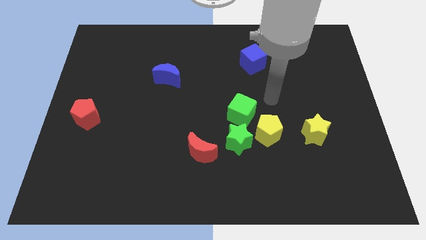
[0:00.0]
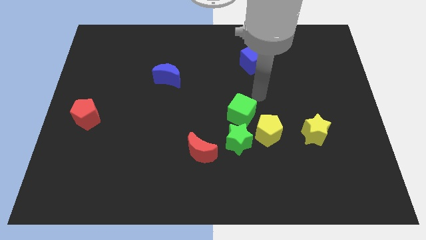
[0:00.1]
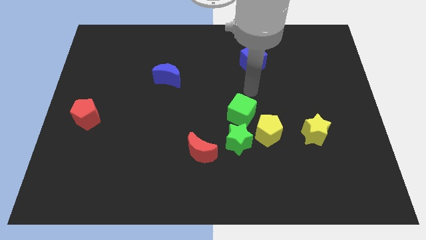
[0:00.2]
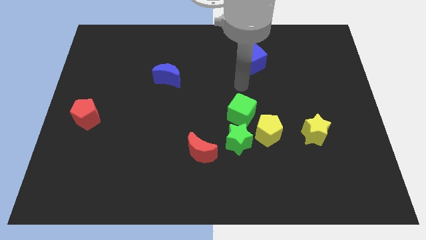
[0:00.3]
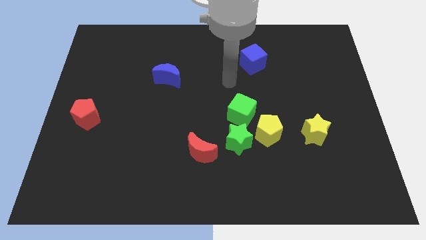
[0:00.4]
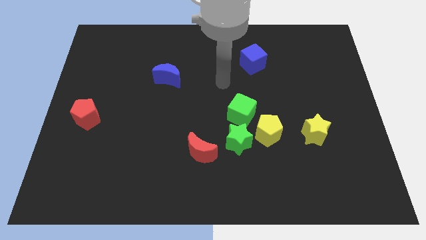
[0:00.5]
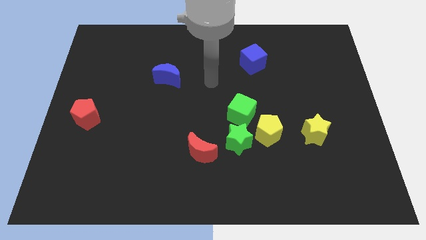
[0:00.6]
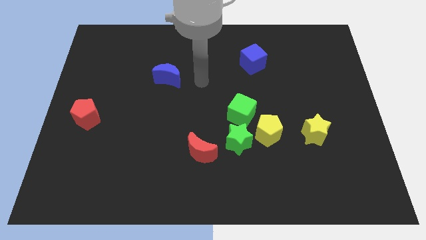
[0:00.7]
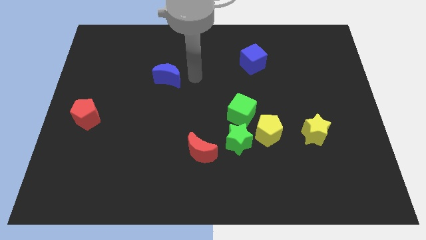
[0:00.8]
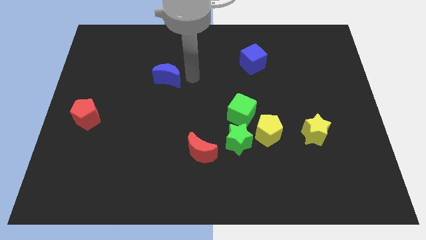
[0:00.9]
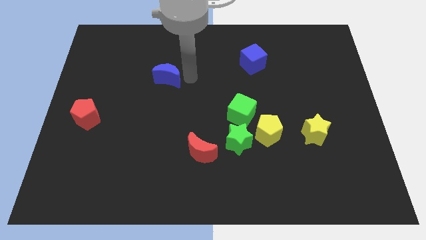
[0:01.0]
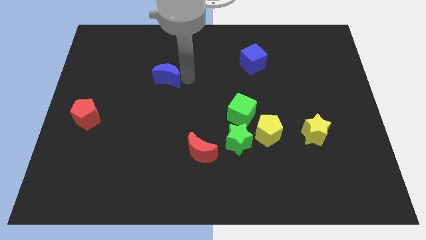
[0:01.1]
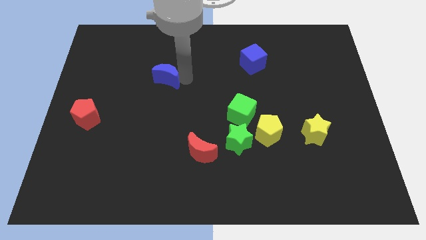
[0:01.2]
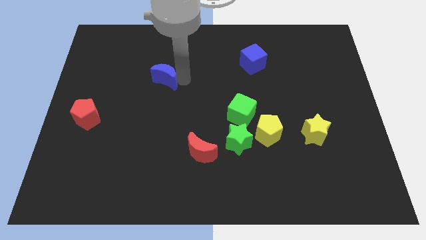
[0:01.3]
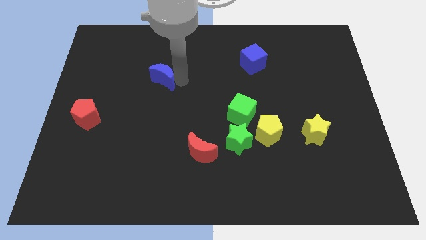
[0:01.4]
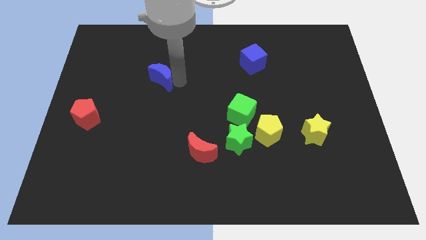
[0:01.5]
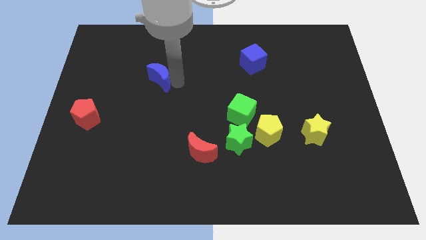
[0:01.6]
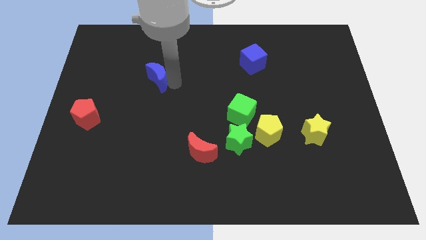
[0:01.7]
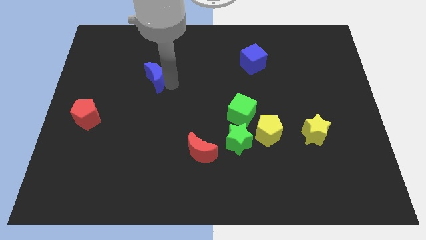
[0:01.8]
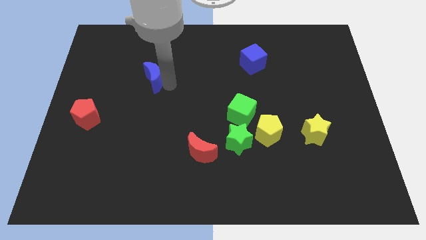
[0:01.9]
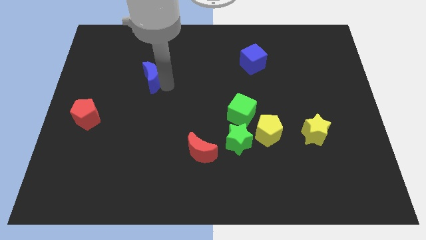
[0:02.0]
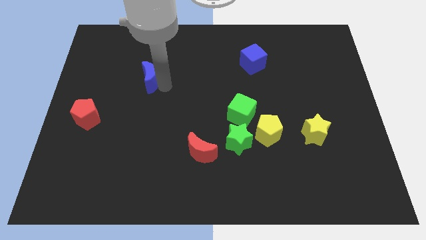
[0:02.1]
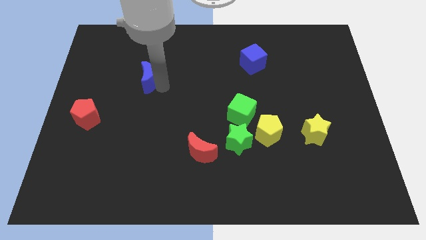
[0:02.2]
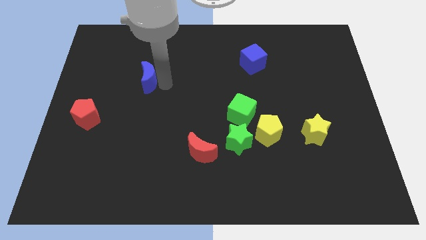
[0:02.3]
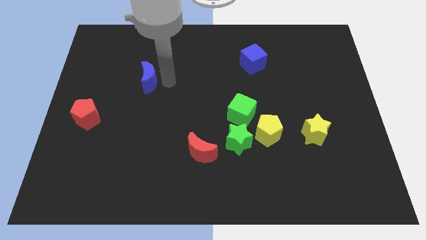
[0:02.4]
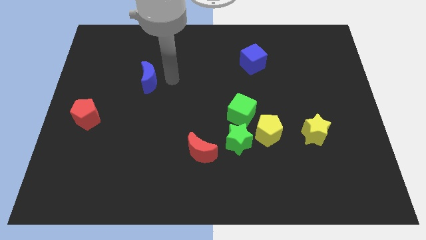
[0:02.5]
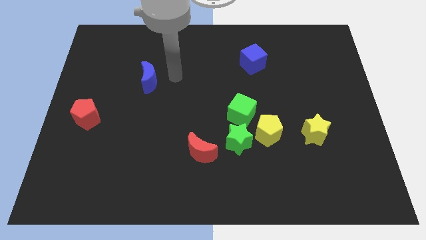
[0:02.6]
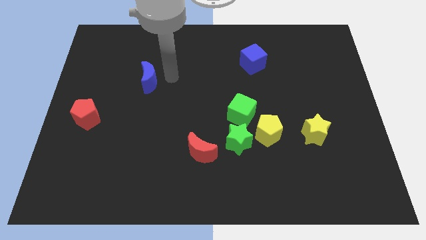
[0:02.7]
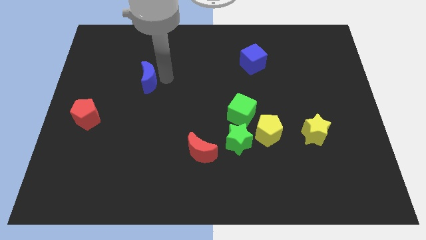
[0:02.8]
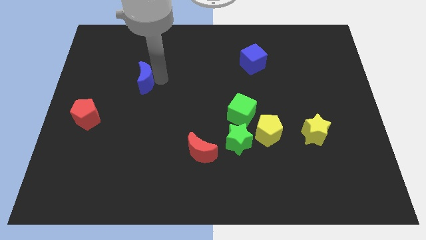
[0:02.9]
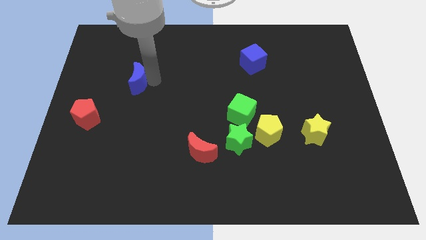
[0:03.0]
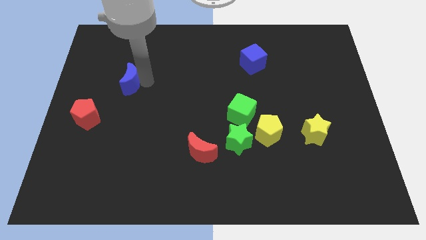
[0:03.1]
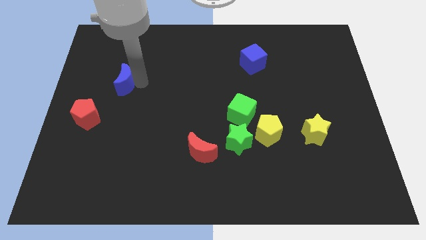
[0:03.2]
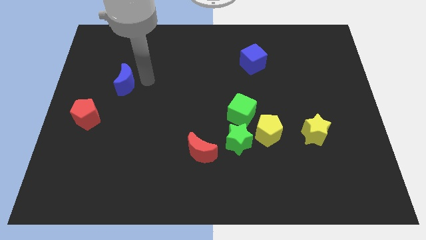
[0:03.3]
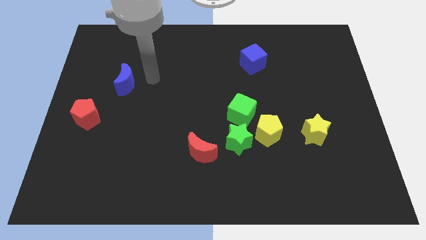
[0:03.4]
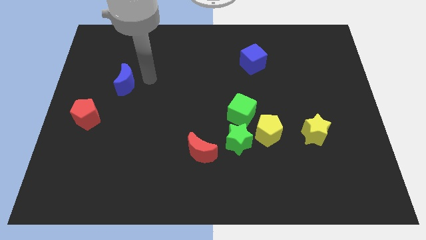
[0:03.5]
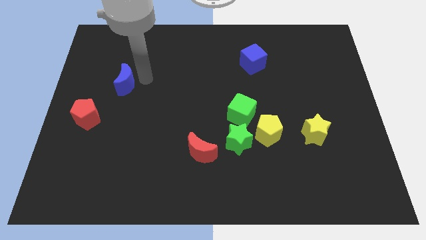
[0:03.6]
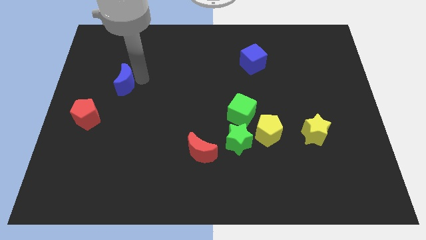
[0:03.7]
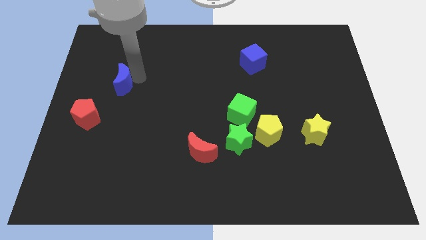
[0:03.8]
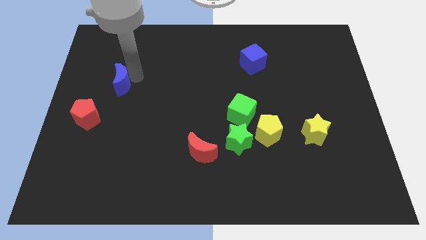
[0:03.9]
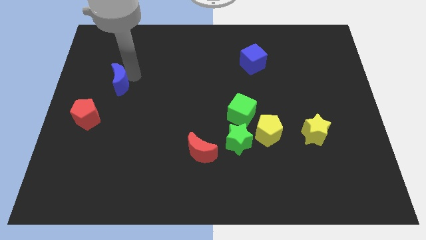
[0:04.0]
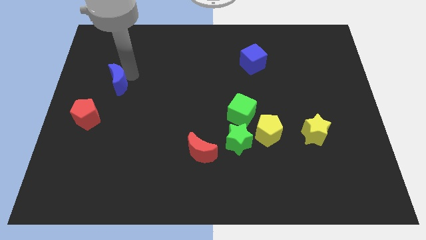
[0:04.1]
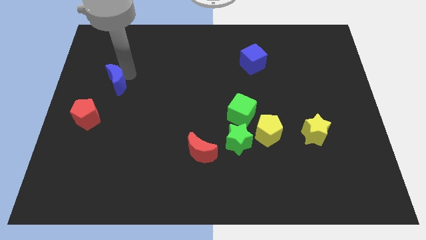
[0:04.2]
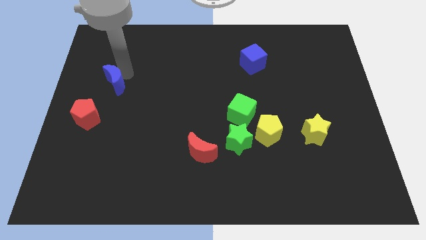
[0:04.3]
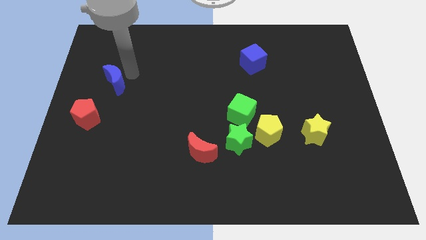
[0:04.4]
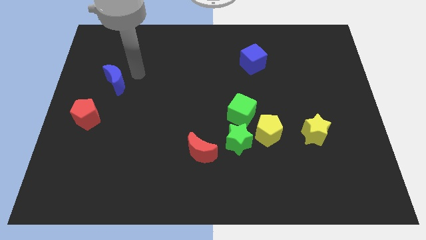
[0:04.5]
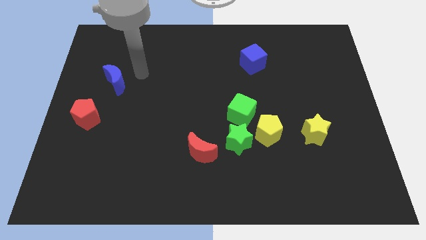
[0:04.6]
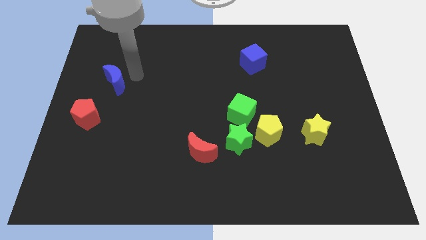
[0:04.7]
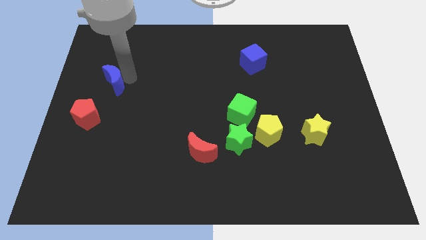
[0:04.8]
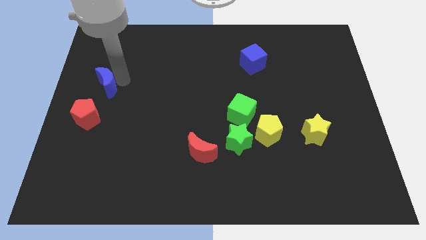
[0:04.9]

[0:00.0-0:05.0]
put the blue moon to the left side

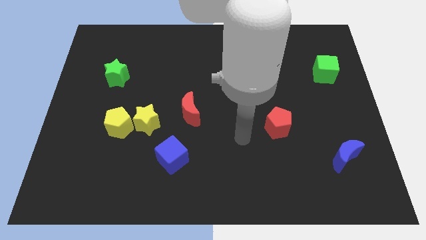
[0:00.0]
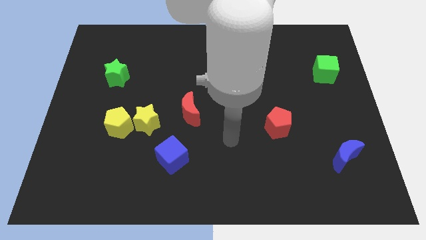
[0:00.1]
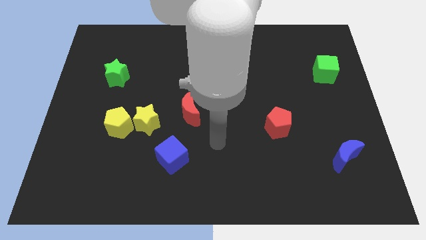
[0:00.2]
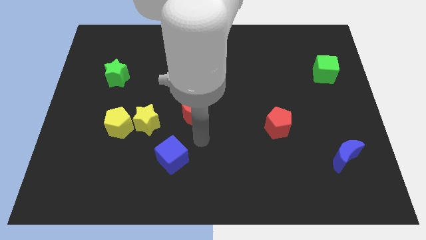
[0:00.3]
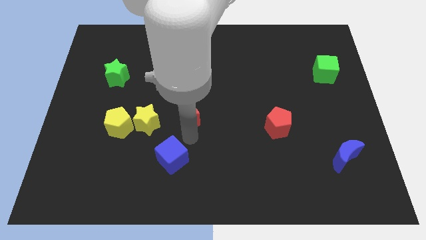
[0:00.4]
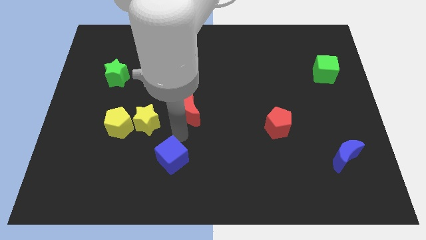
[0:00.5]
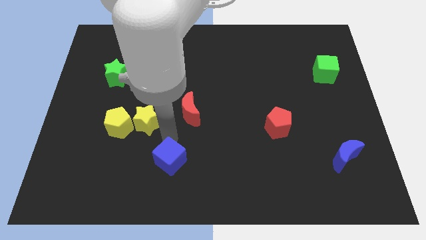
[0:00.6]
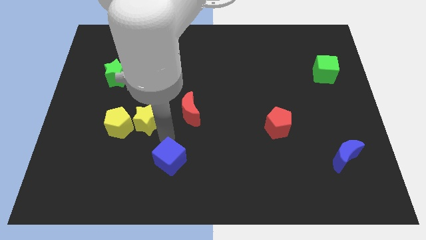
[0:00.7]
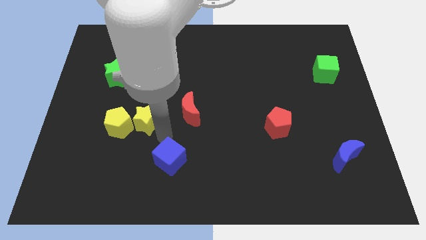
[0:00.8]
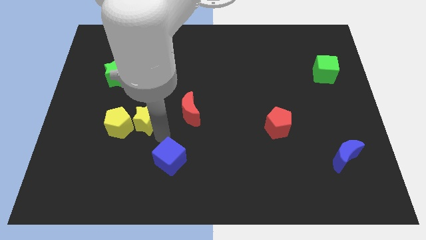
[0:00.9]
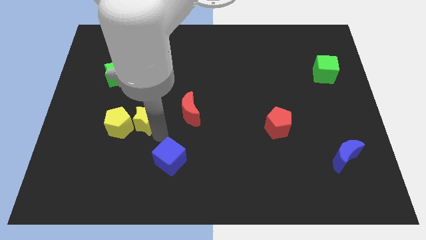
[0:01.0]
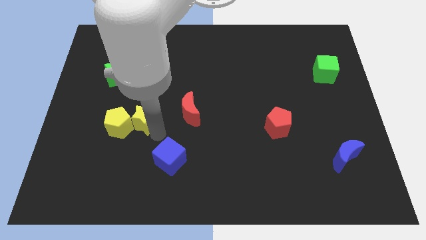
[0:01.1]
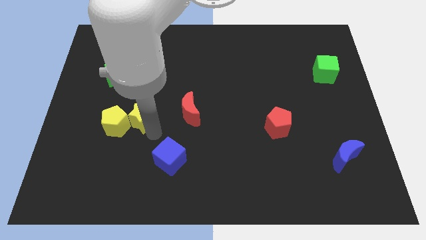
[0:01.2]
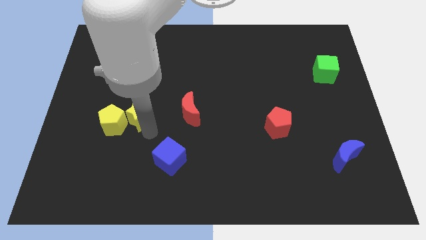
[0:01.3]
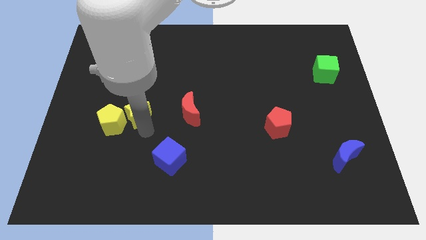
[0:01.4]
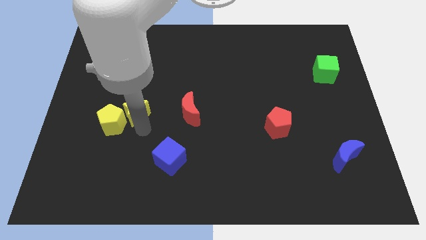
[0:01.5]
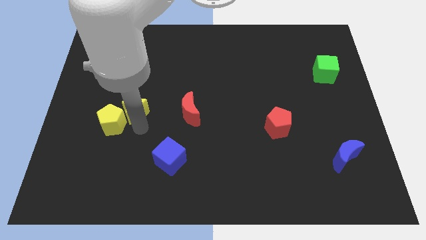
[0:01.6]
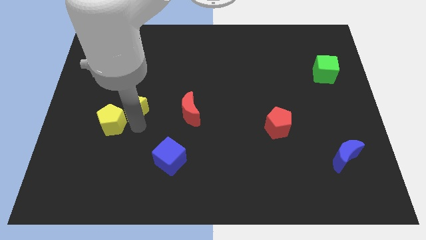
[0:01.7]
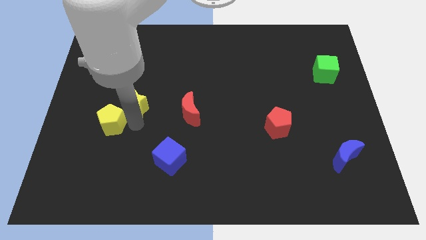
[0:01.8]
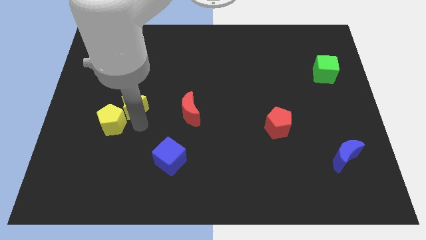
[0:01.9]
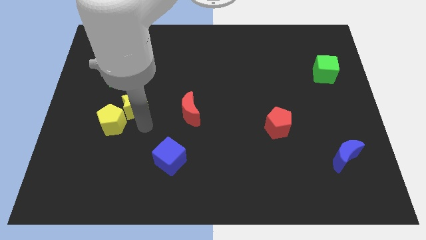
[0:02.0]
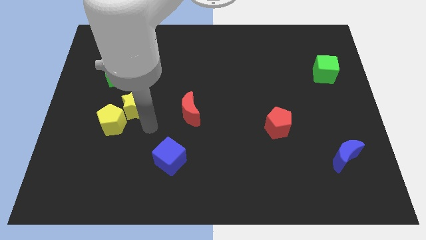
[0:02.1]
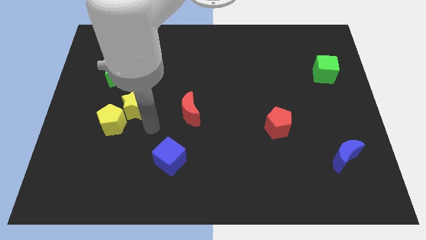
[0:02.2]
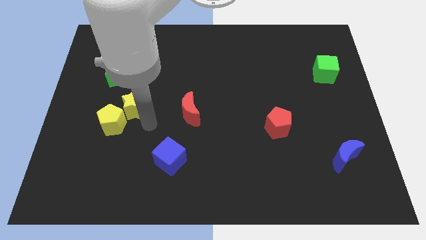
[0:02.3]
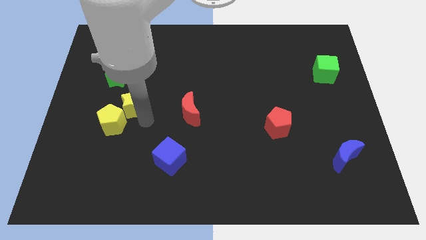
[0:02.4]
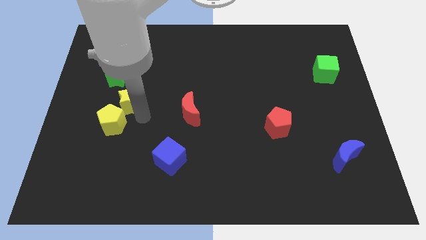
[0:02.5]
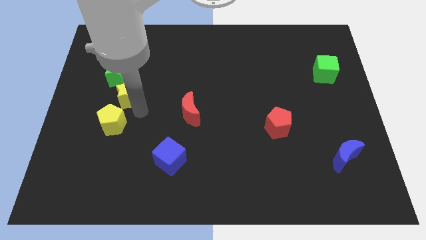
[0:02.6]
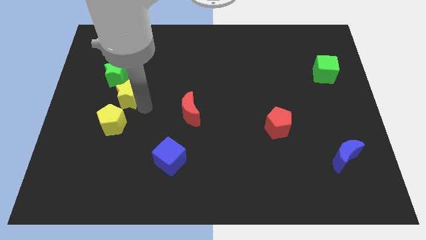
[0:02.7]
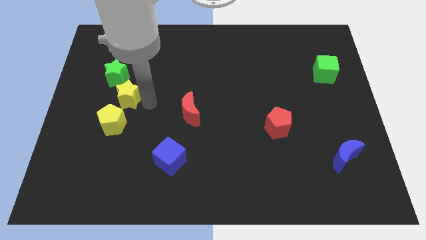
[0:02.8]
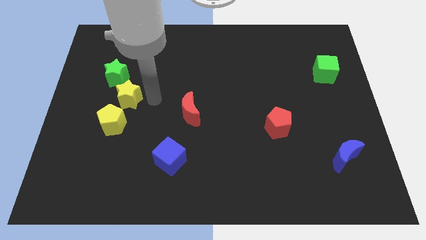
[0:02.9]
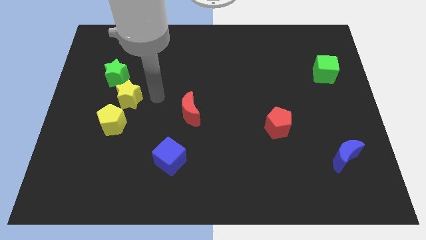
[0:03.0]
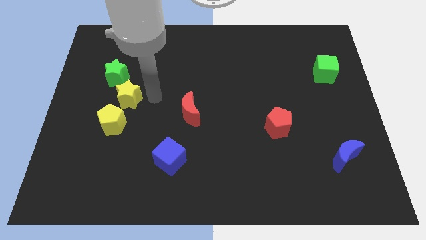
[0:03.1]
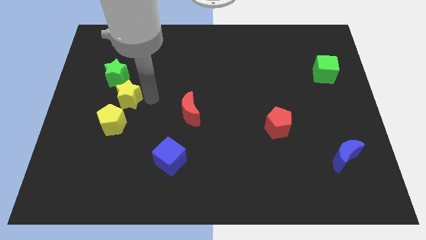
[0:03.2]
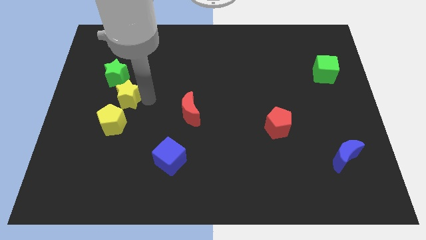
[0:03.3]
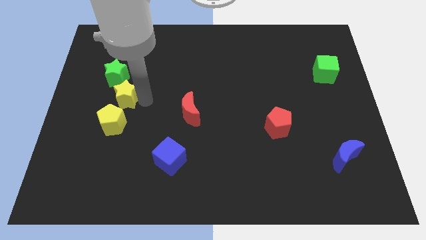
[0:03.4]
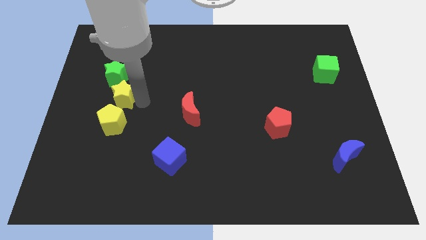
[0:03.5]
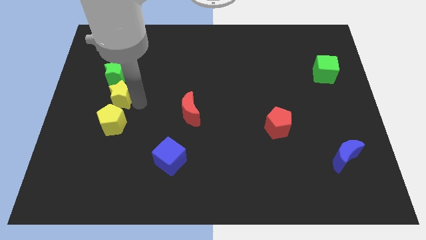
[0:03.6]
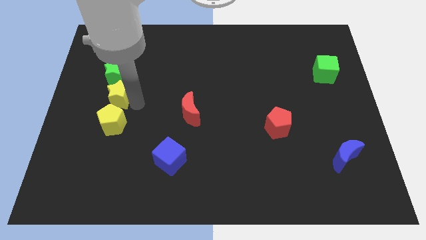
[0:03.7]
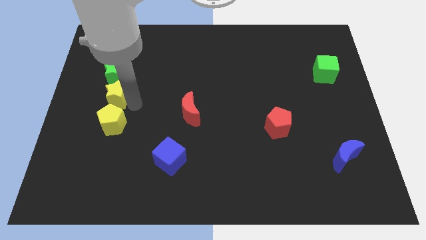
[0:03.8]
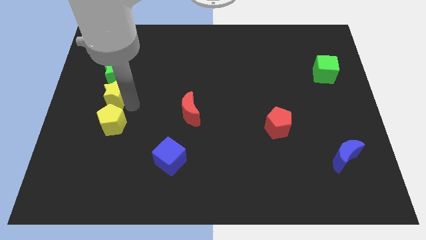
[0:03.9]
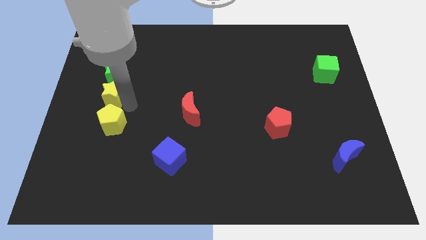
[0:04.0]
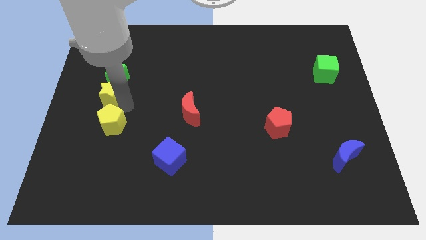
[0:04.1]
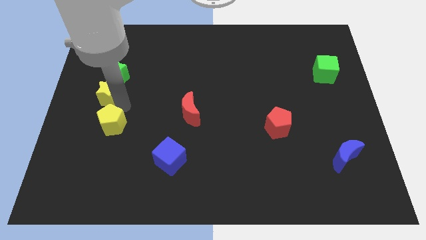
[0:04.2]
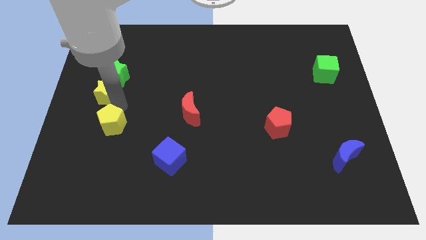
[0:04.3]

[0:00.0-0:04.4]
push the yellow star to the left side of the board
